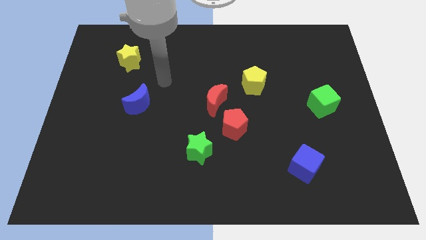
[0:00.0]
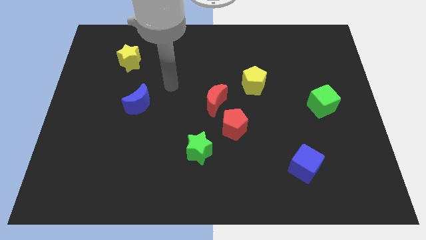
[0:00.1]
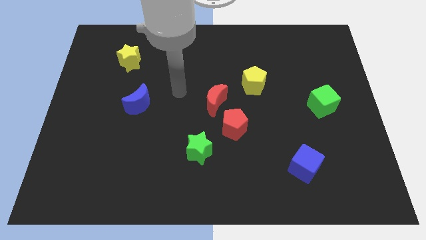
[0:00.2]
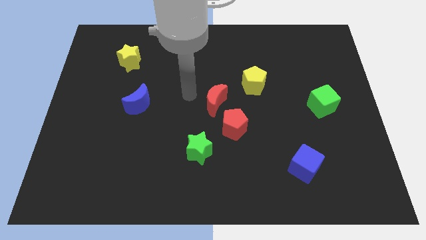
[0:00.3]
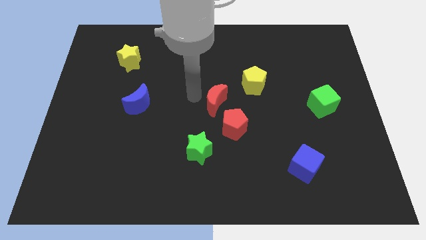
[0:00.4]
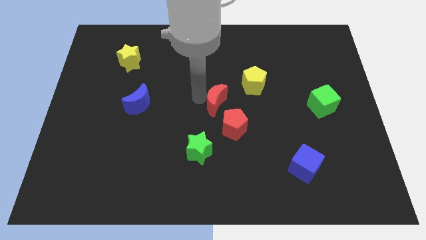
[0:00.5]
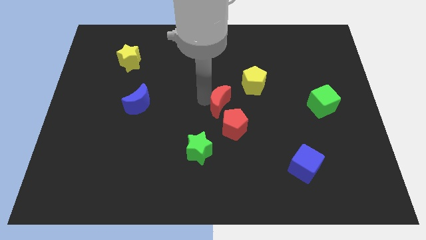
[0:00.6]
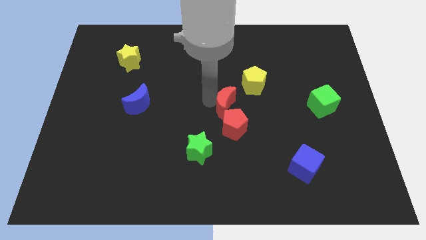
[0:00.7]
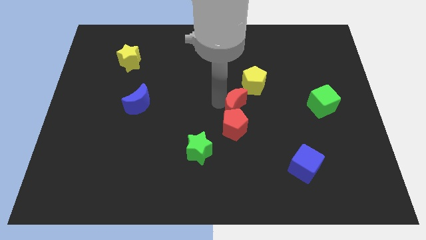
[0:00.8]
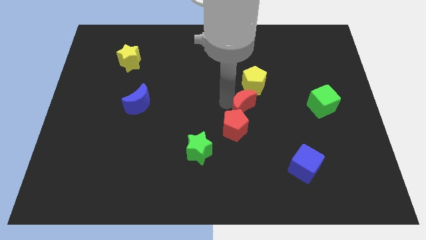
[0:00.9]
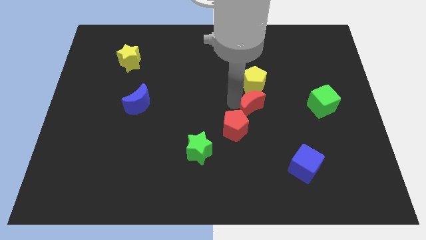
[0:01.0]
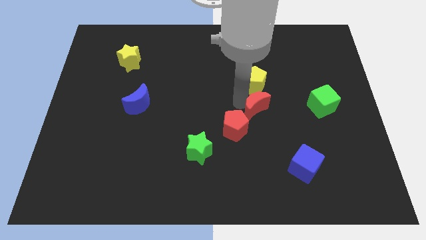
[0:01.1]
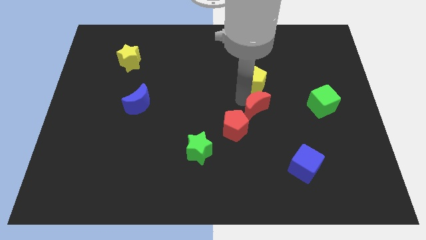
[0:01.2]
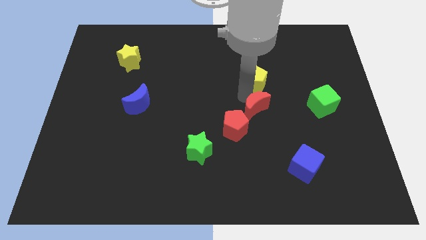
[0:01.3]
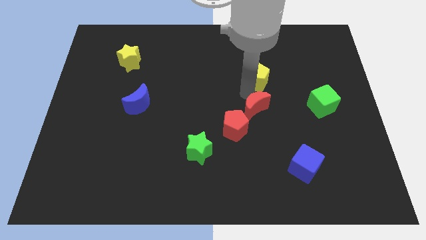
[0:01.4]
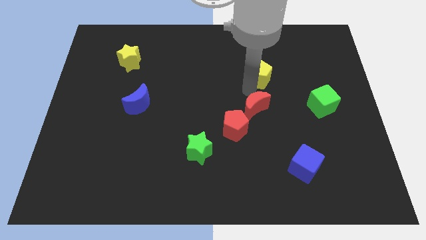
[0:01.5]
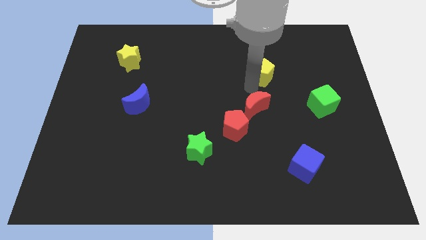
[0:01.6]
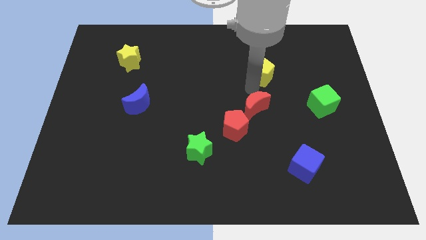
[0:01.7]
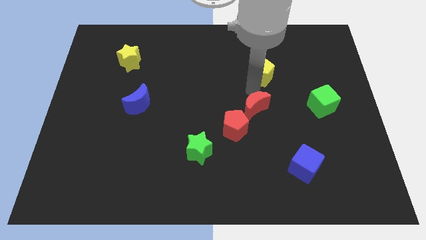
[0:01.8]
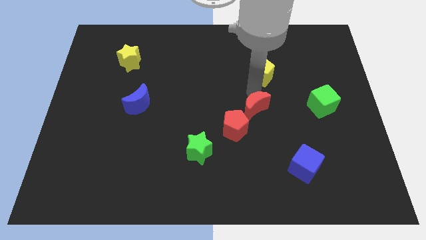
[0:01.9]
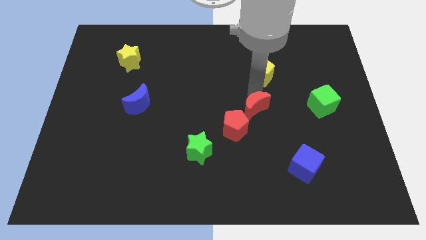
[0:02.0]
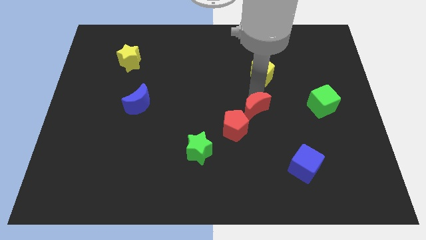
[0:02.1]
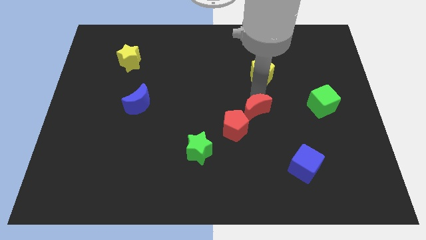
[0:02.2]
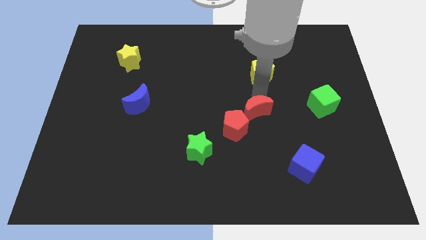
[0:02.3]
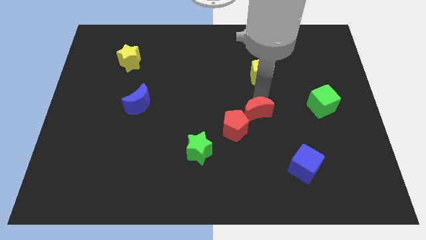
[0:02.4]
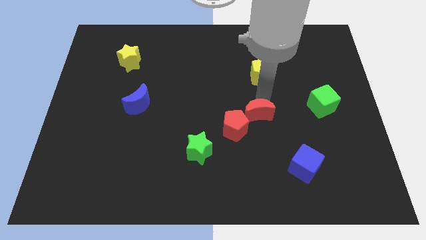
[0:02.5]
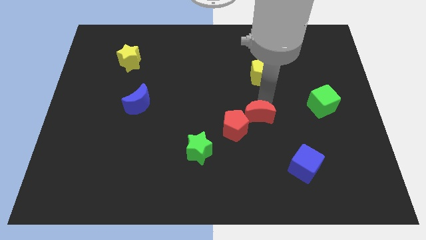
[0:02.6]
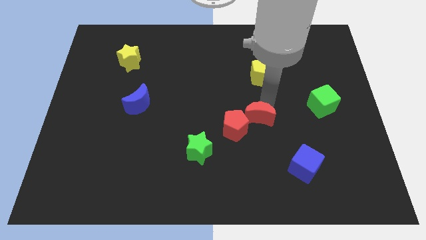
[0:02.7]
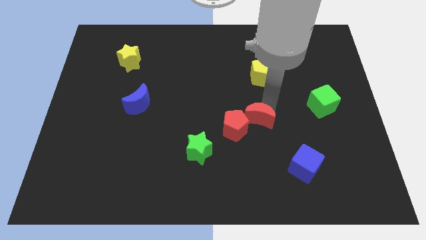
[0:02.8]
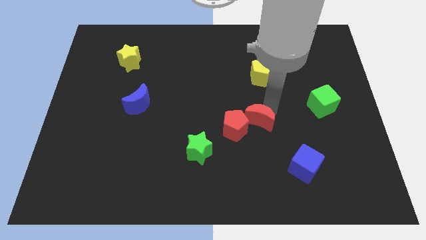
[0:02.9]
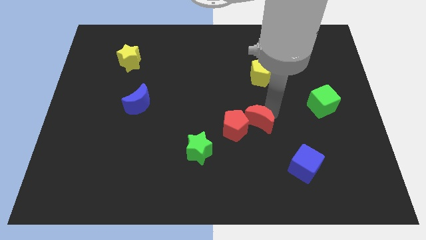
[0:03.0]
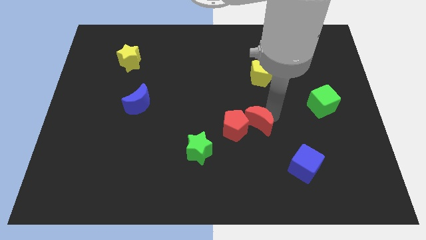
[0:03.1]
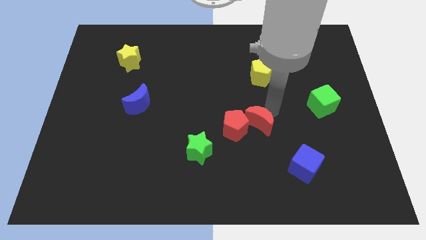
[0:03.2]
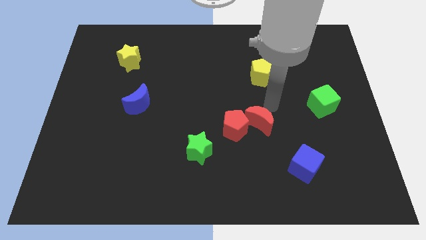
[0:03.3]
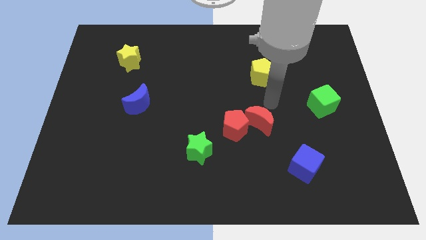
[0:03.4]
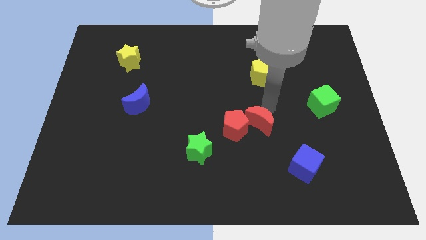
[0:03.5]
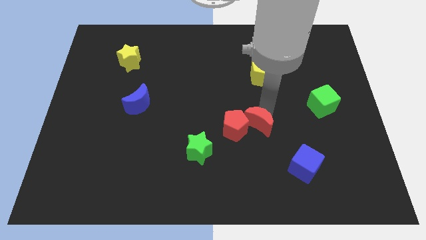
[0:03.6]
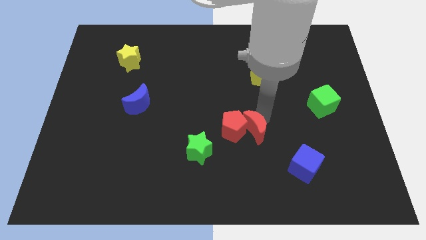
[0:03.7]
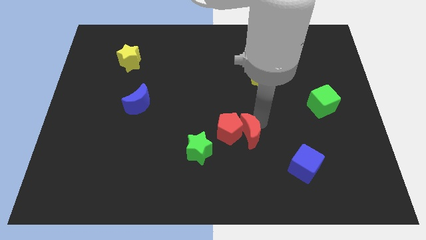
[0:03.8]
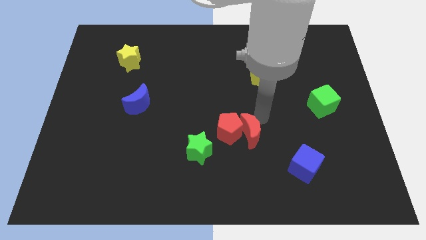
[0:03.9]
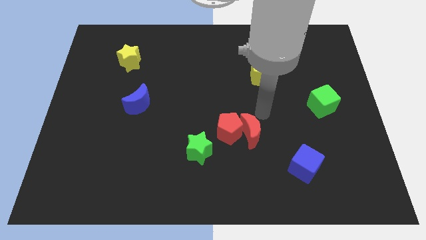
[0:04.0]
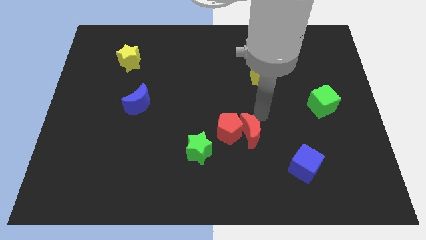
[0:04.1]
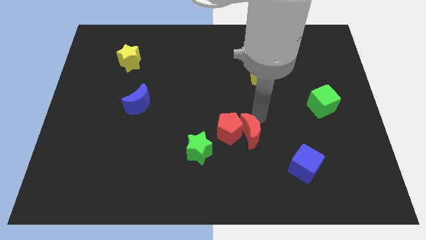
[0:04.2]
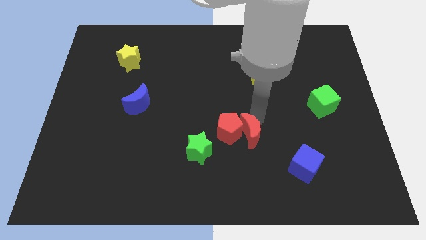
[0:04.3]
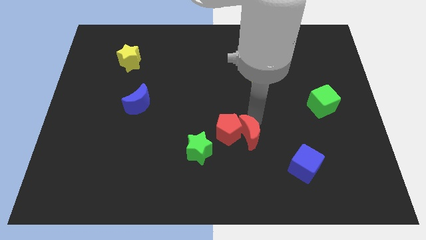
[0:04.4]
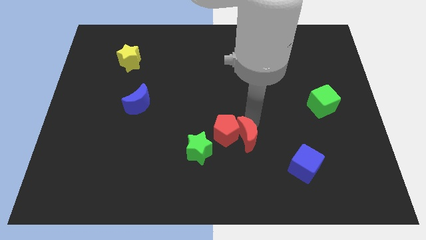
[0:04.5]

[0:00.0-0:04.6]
slide the red moon downwards a bit

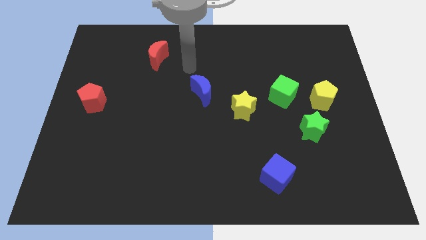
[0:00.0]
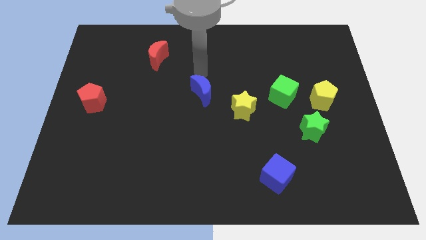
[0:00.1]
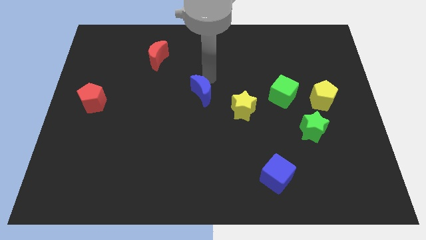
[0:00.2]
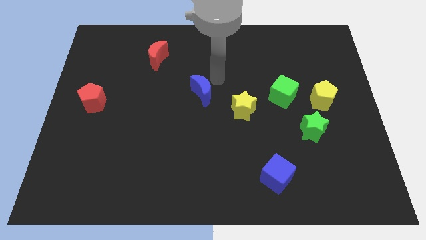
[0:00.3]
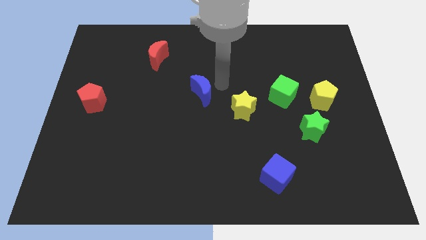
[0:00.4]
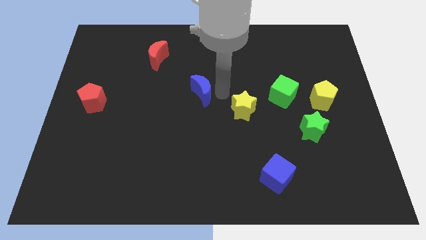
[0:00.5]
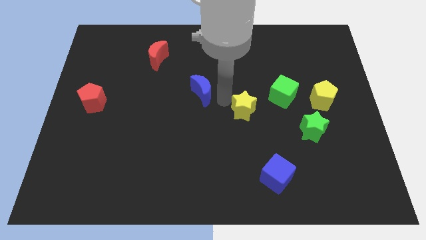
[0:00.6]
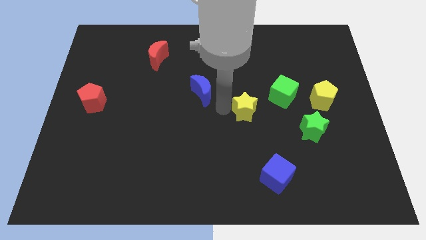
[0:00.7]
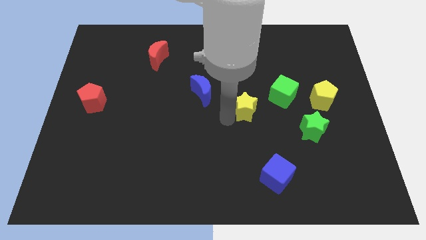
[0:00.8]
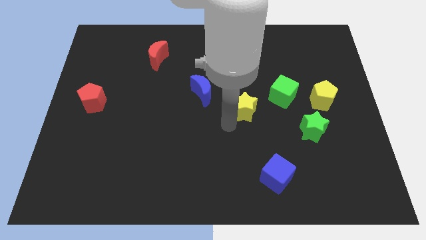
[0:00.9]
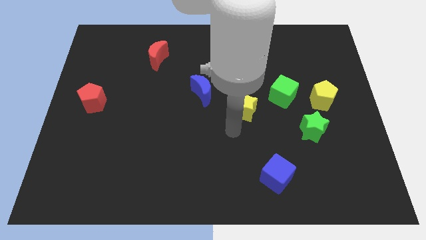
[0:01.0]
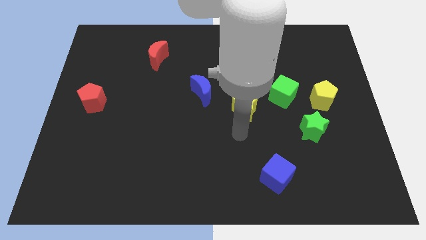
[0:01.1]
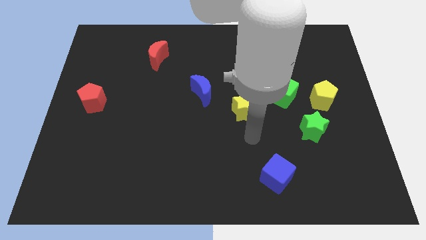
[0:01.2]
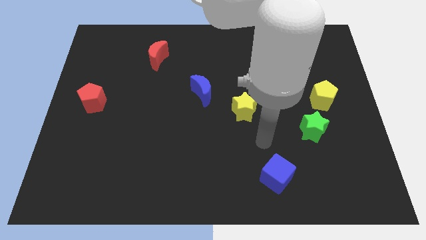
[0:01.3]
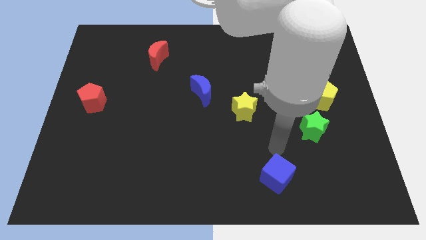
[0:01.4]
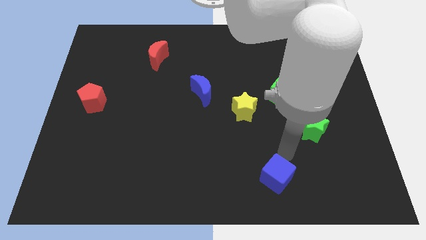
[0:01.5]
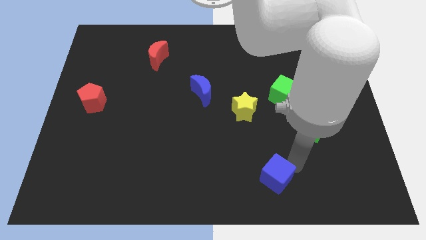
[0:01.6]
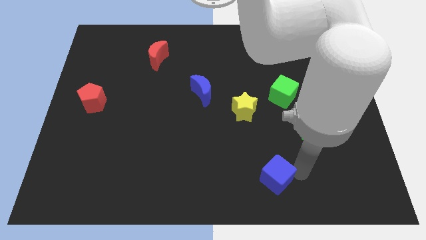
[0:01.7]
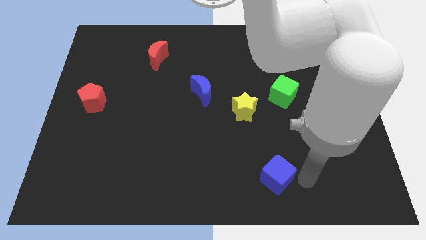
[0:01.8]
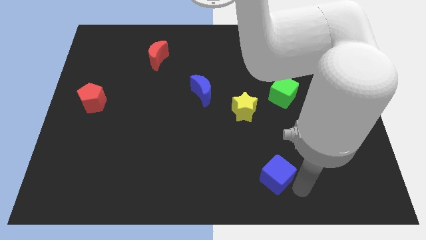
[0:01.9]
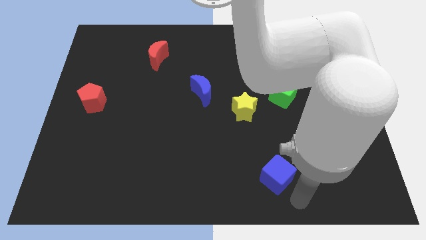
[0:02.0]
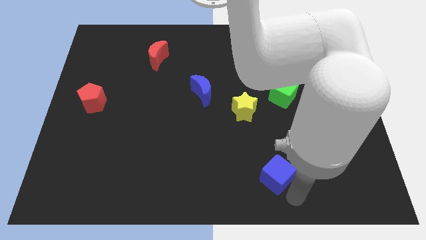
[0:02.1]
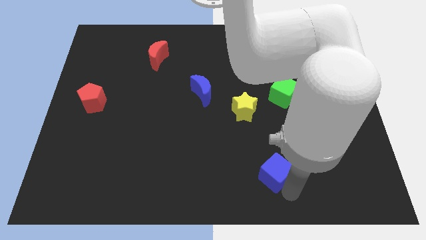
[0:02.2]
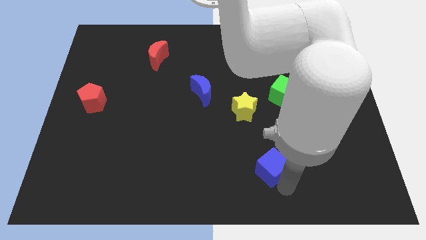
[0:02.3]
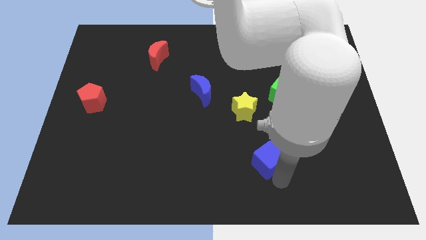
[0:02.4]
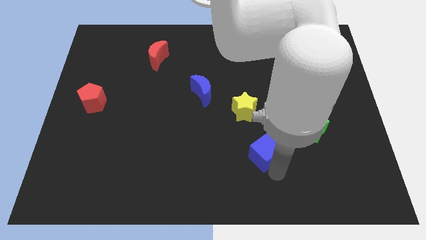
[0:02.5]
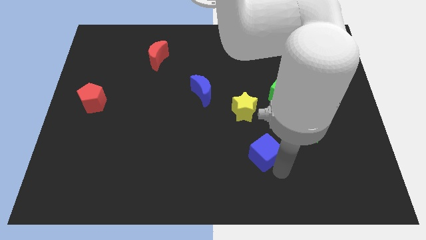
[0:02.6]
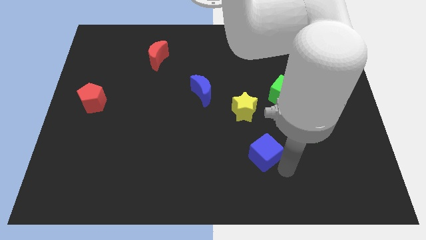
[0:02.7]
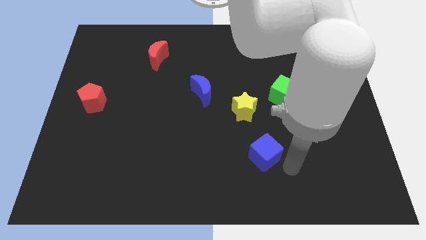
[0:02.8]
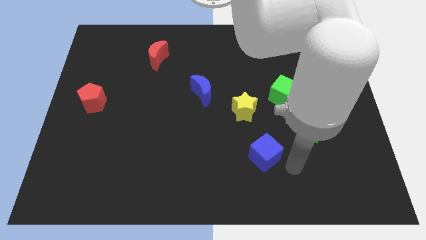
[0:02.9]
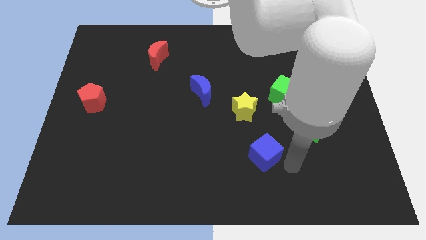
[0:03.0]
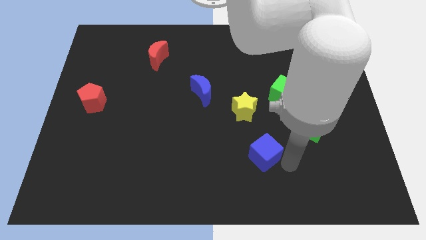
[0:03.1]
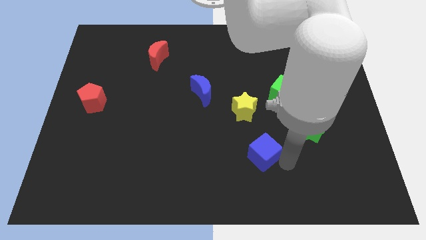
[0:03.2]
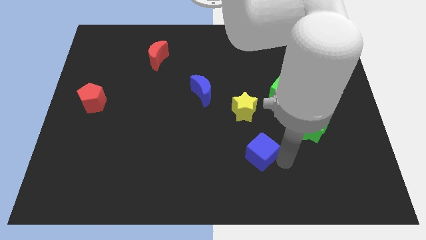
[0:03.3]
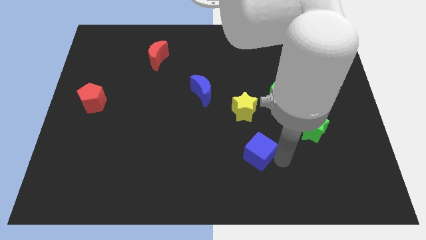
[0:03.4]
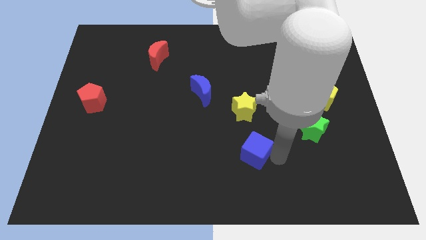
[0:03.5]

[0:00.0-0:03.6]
slightly push the blue cube upwards and then to the left
